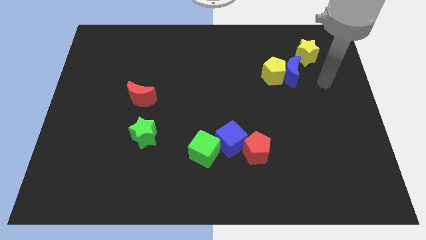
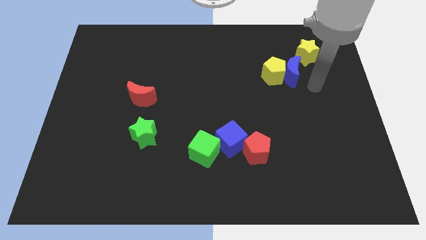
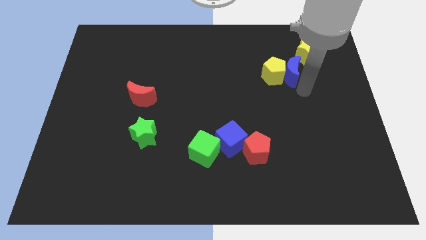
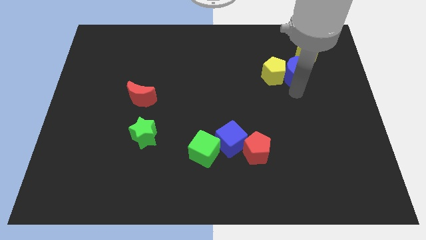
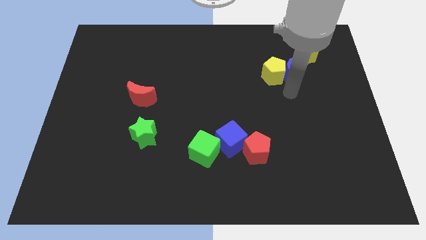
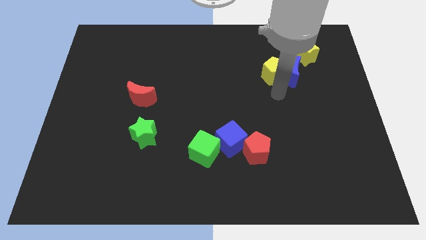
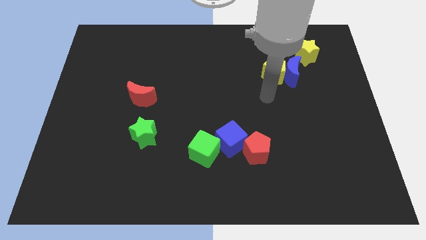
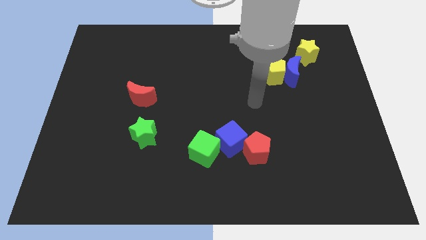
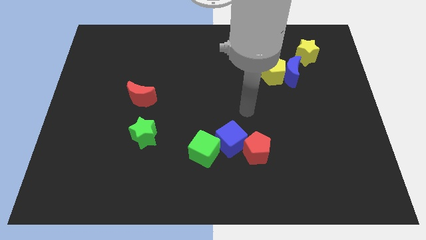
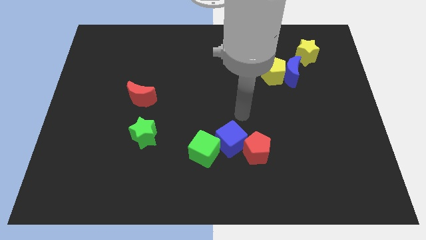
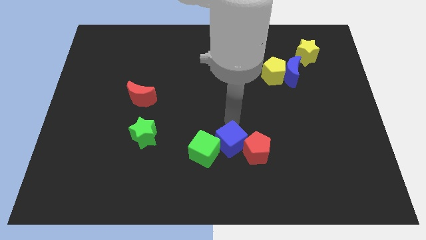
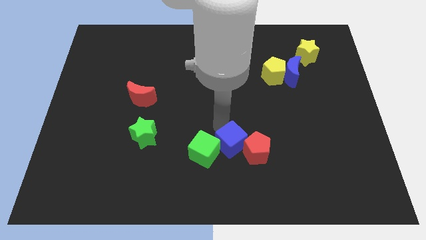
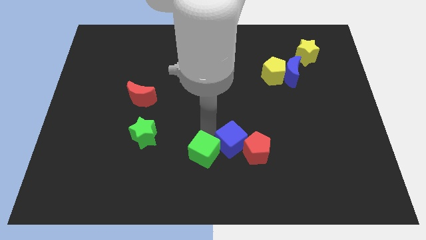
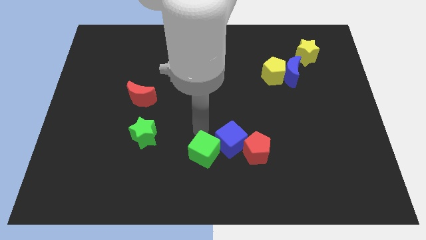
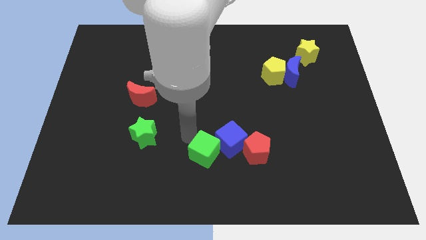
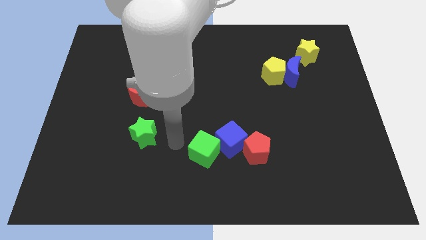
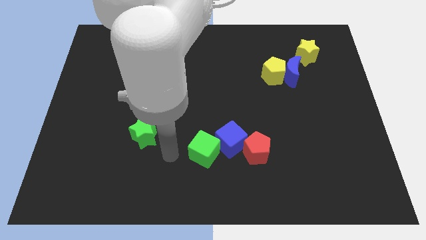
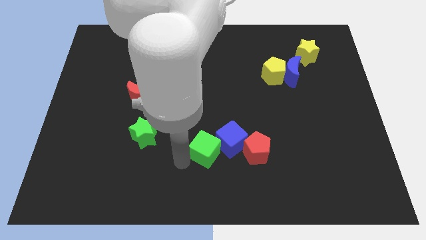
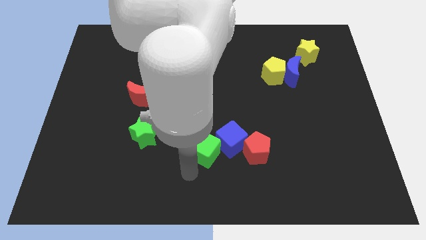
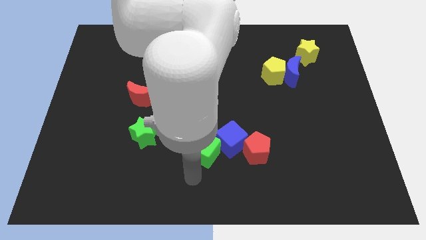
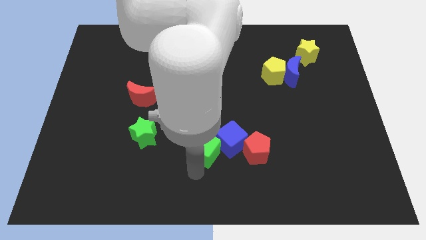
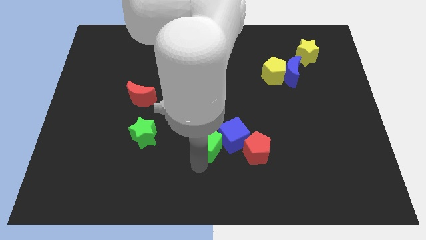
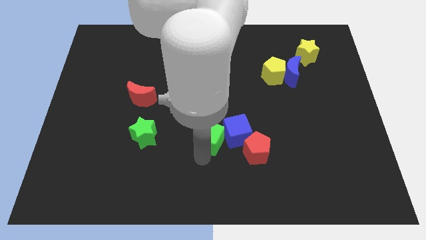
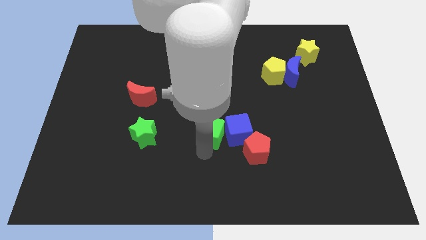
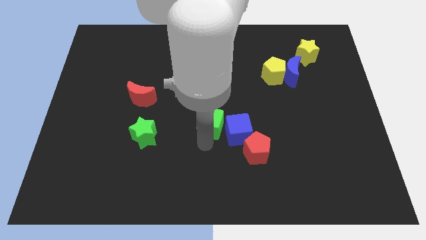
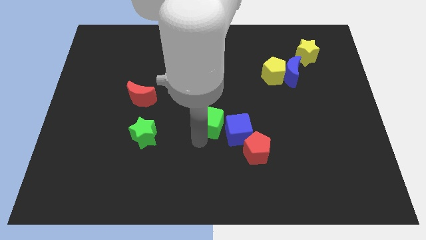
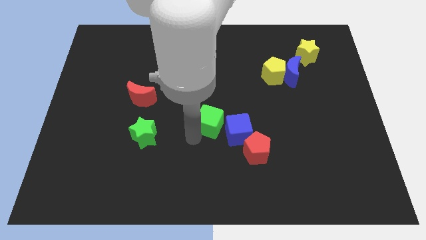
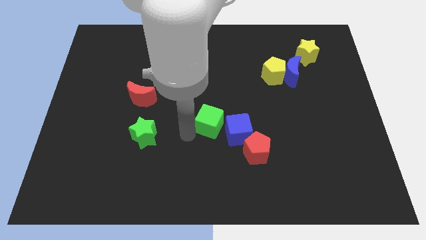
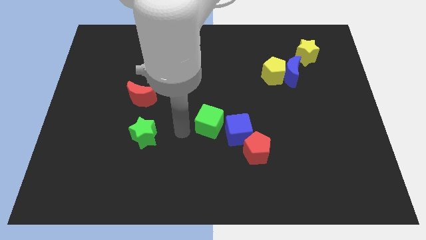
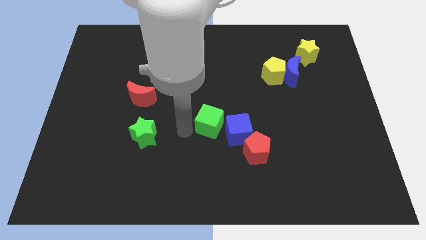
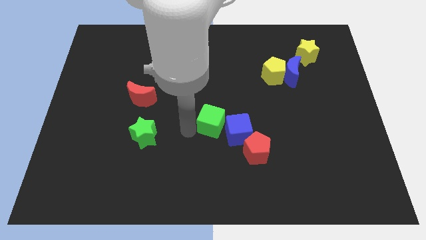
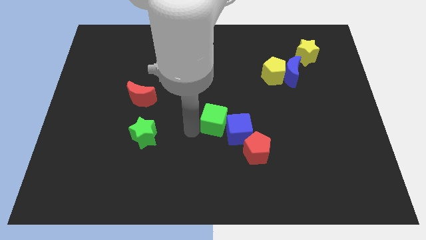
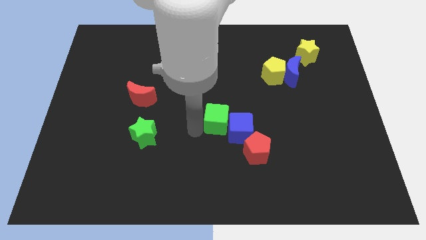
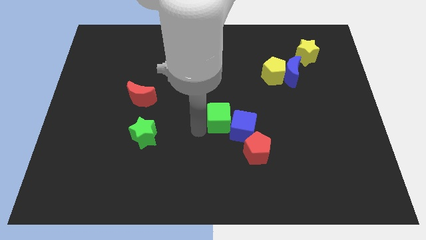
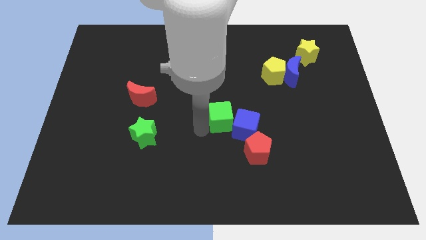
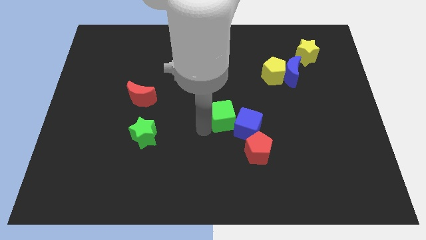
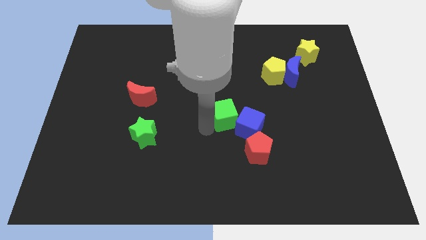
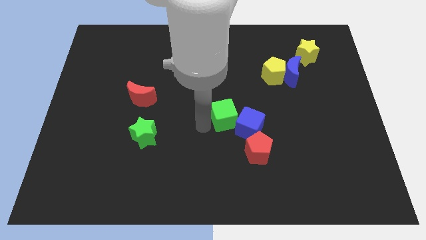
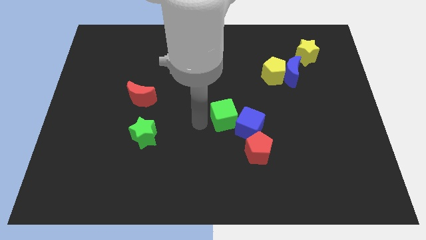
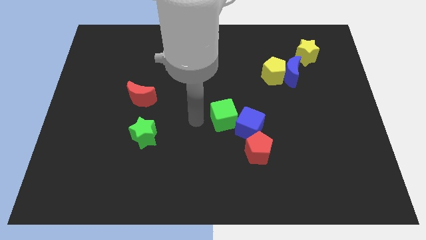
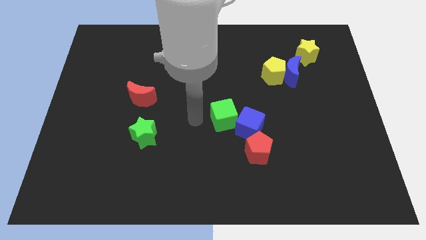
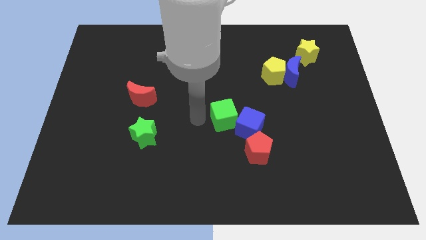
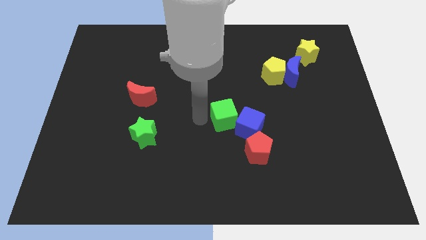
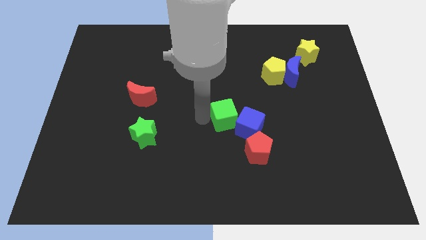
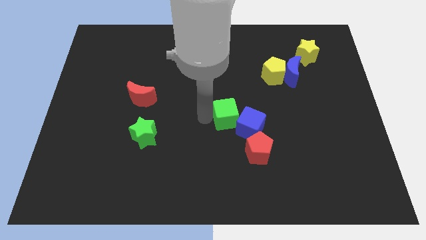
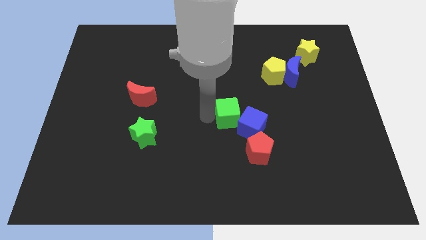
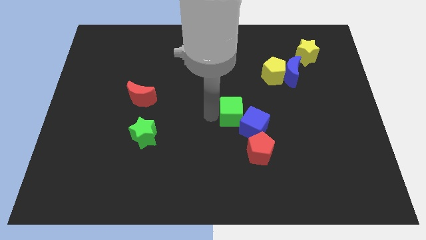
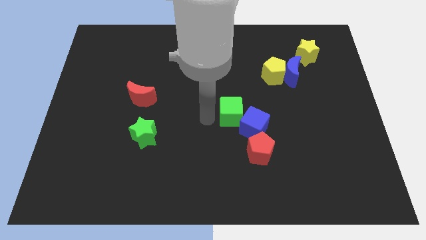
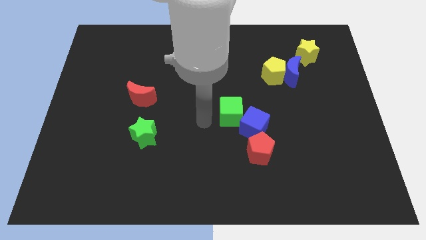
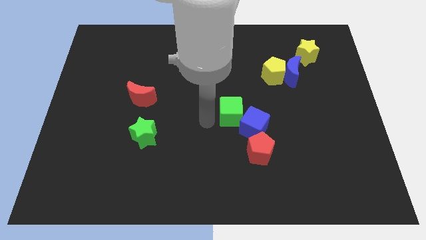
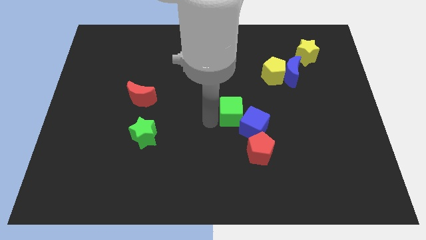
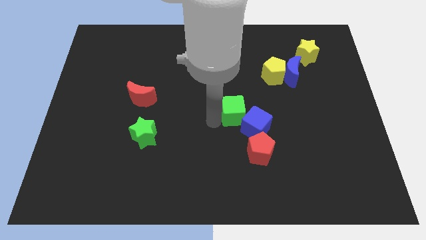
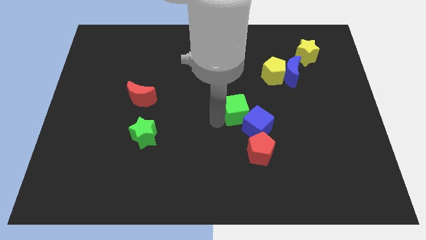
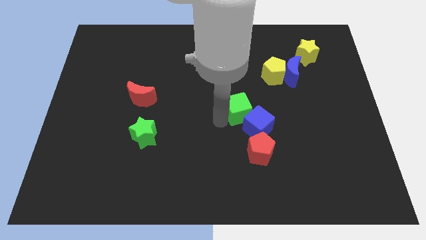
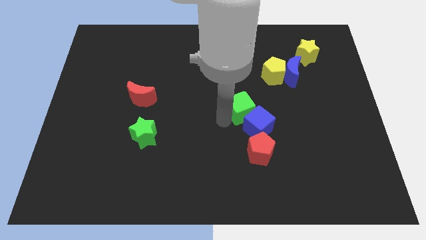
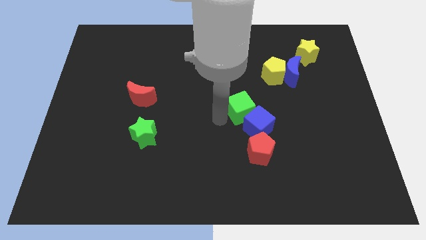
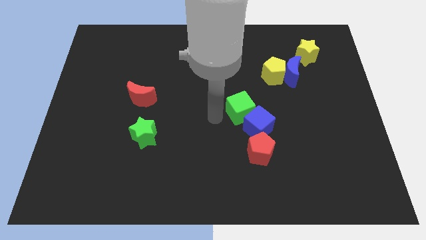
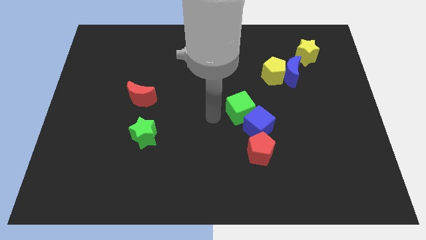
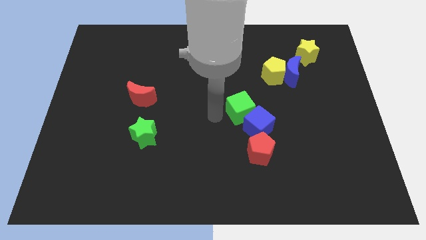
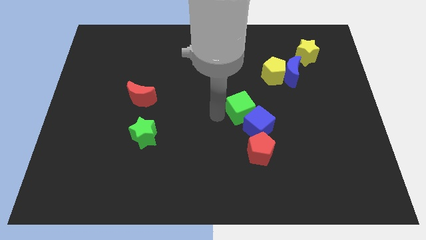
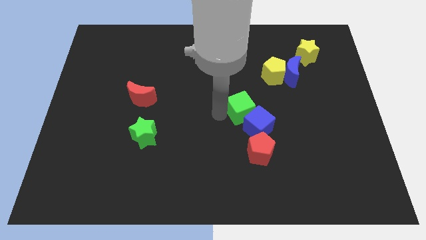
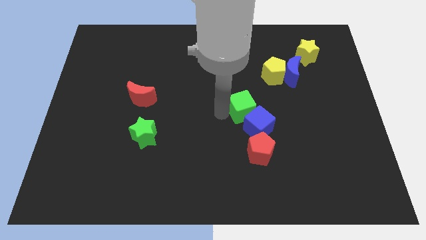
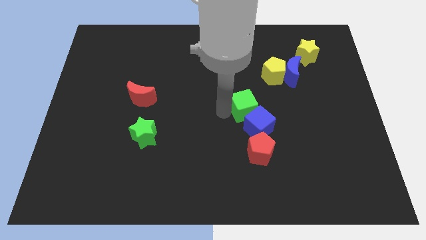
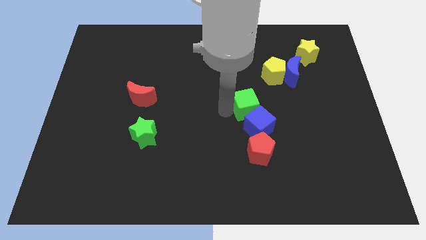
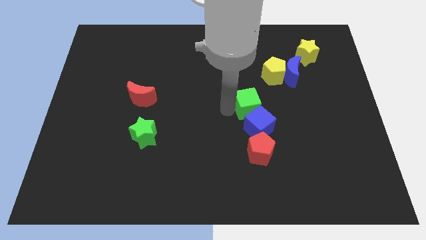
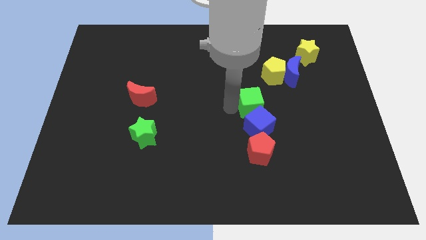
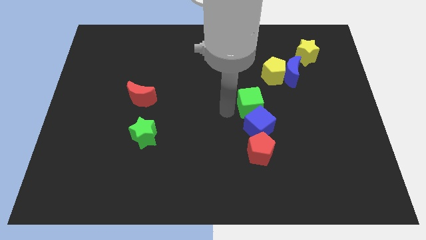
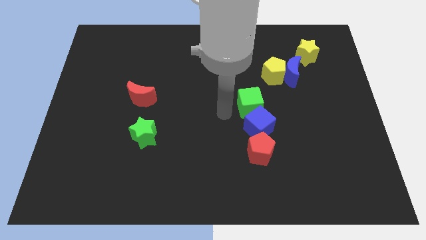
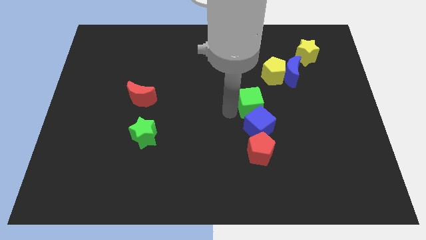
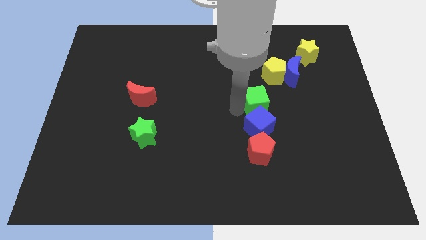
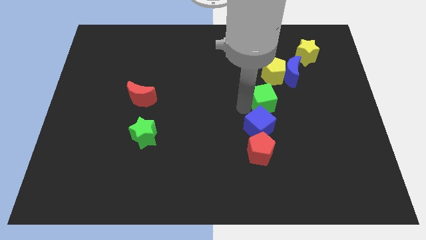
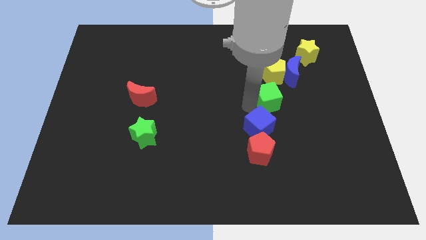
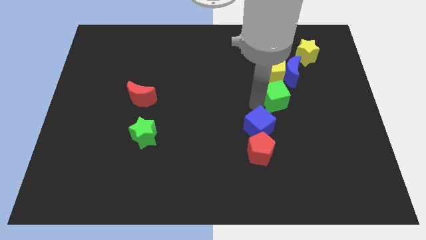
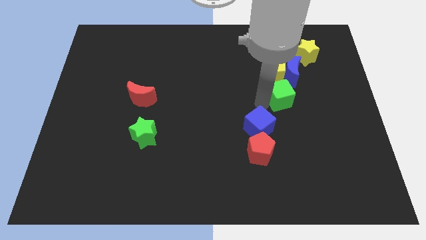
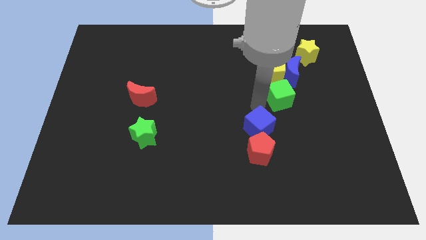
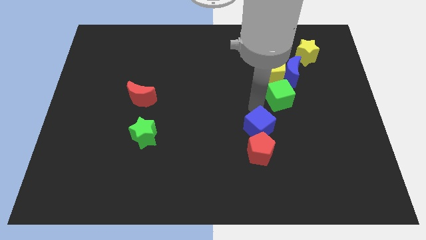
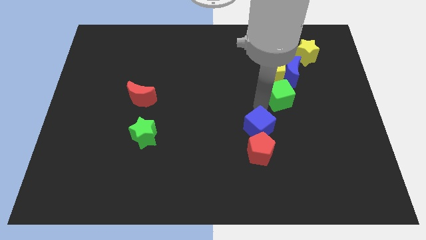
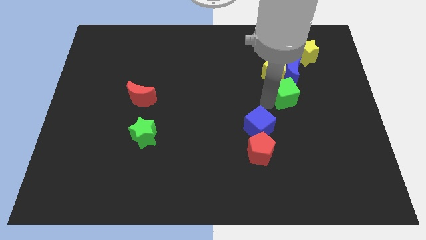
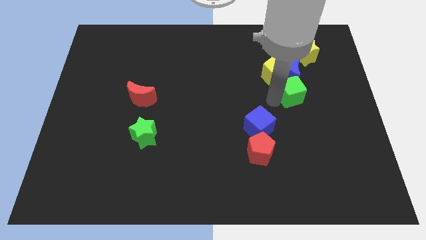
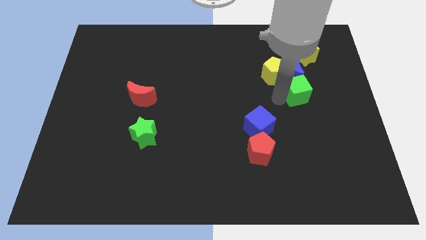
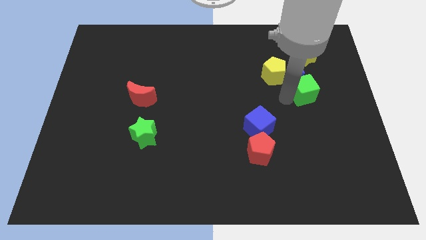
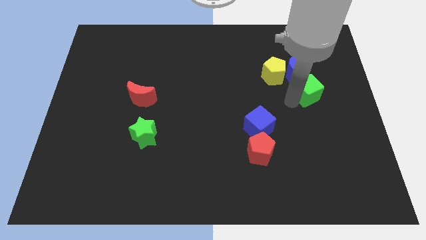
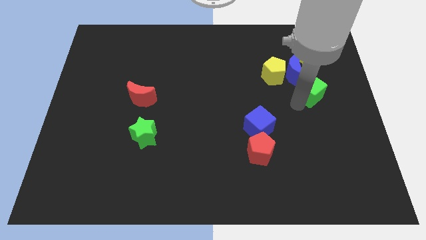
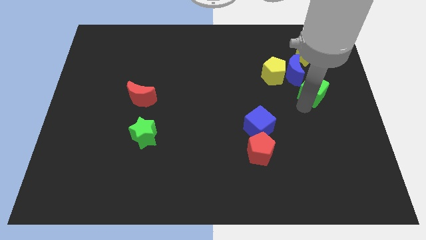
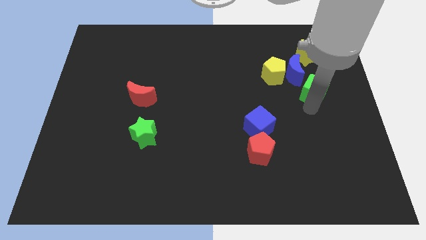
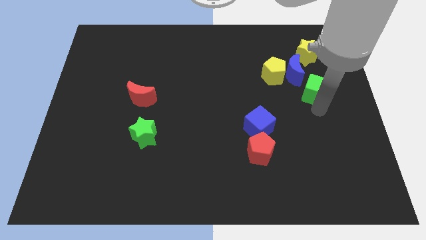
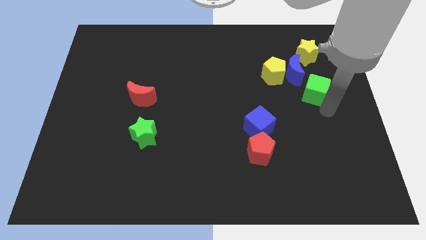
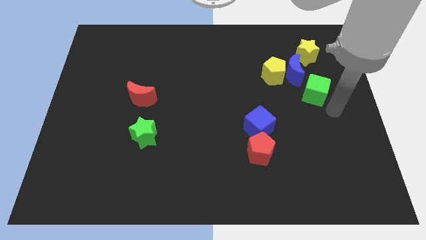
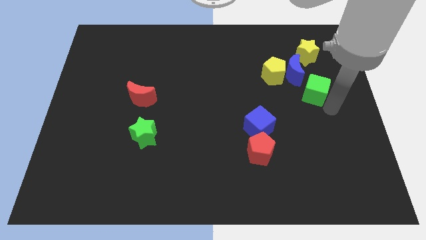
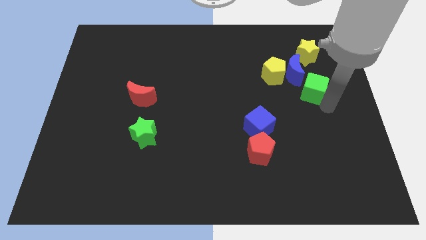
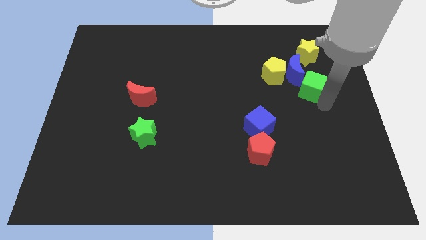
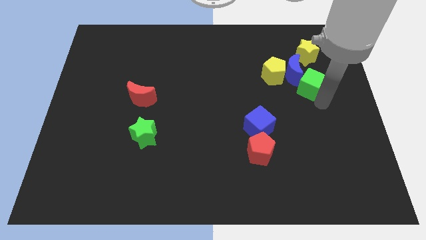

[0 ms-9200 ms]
push the green cube close to the blue moon
